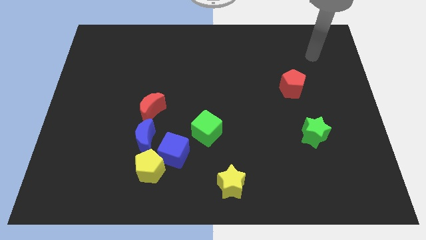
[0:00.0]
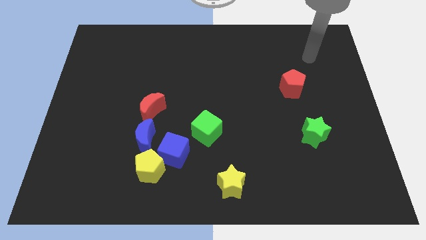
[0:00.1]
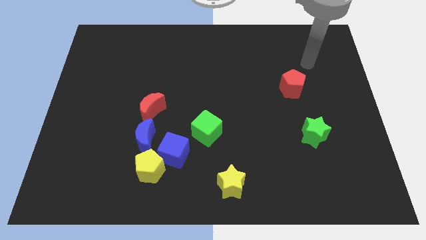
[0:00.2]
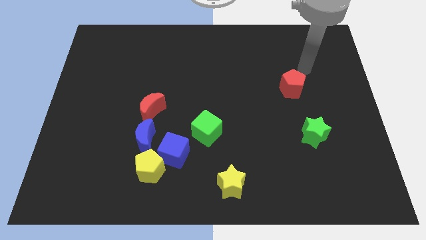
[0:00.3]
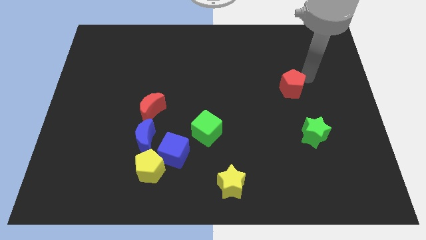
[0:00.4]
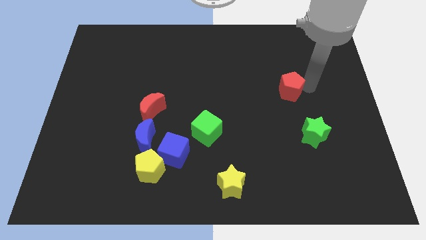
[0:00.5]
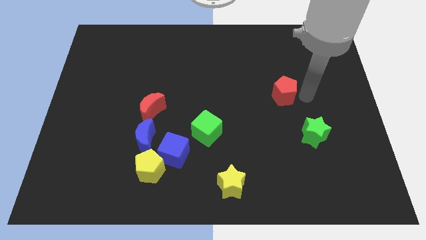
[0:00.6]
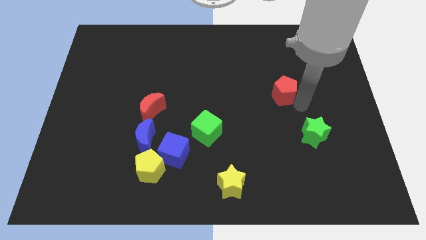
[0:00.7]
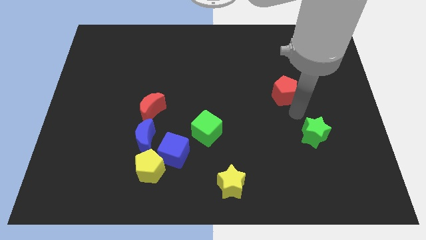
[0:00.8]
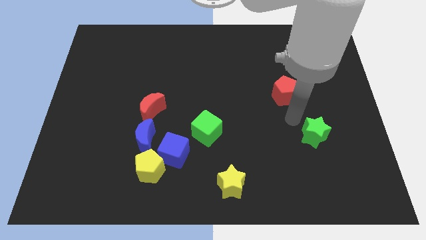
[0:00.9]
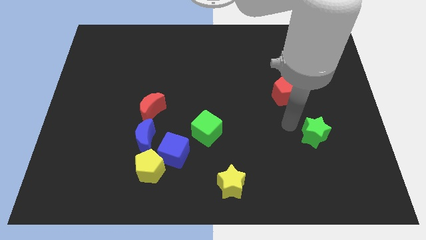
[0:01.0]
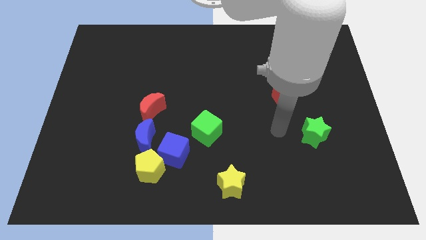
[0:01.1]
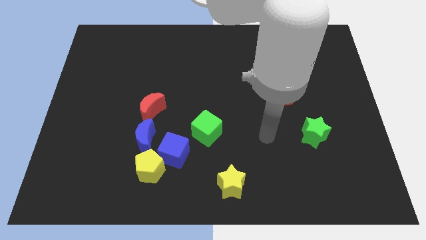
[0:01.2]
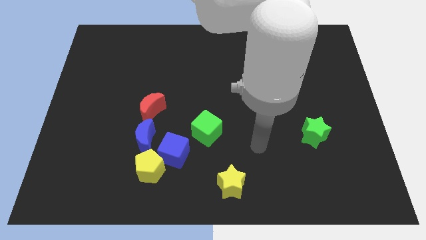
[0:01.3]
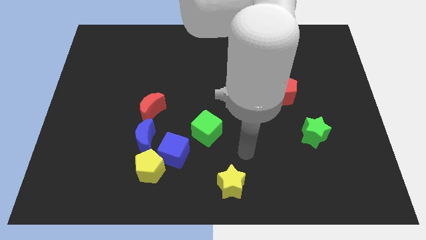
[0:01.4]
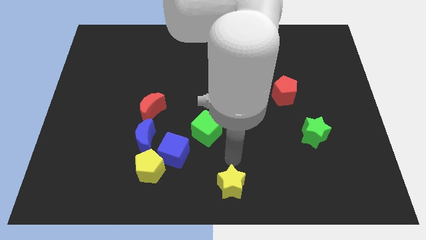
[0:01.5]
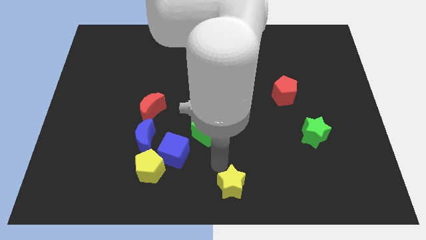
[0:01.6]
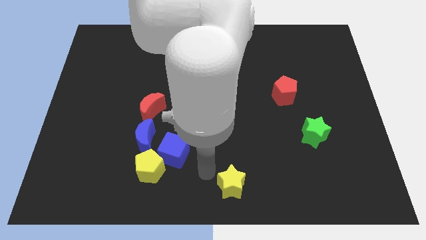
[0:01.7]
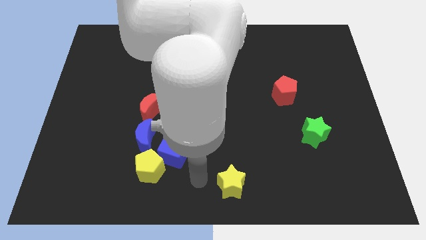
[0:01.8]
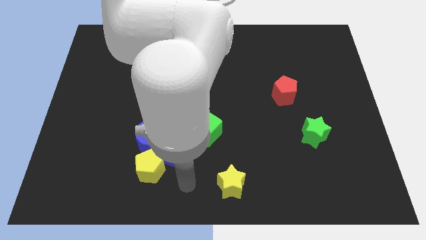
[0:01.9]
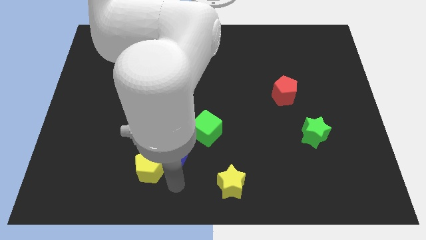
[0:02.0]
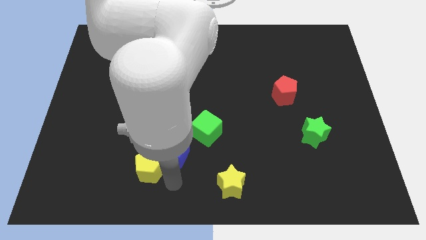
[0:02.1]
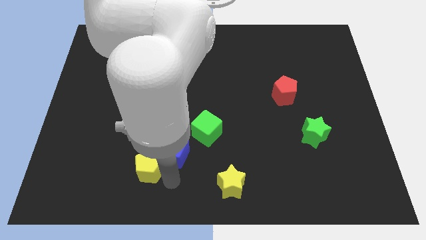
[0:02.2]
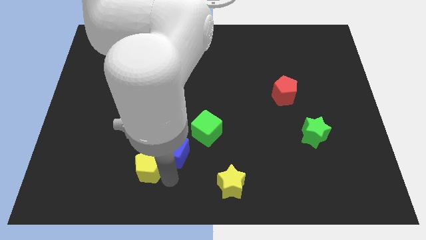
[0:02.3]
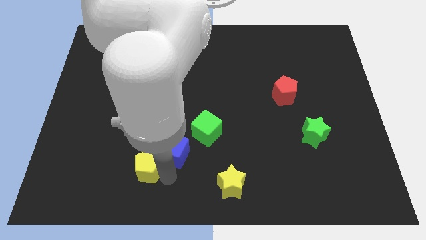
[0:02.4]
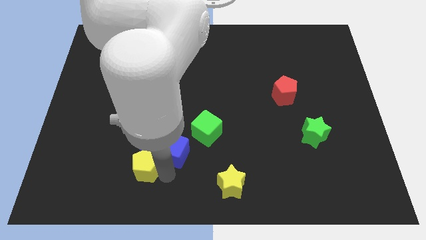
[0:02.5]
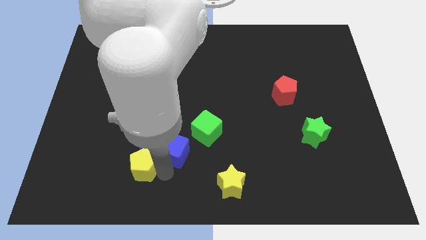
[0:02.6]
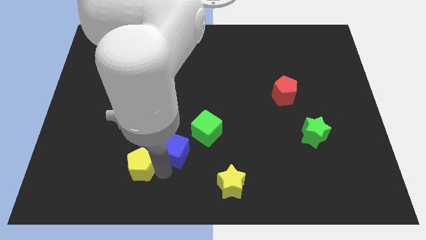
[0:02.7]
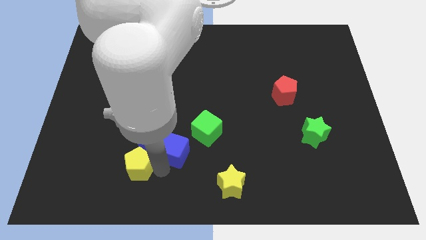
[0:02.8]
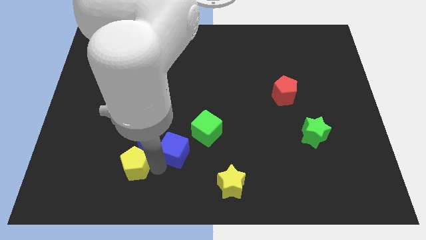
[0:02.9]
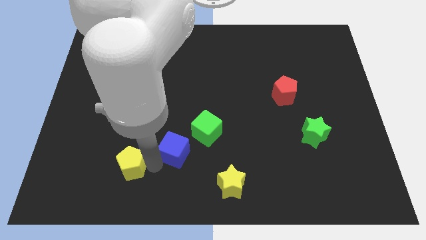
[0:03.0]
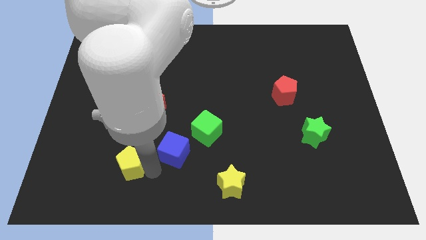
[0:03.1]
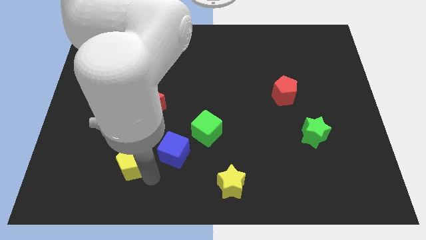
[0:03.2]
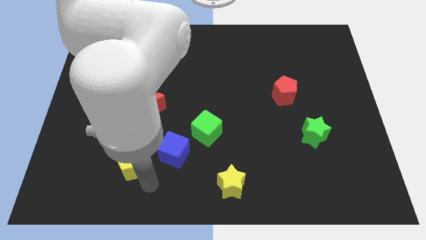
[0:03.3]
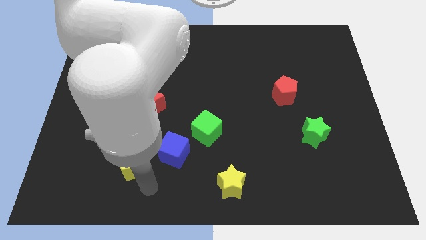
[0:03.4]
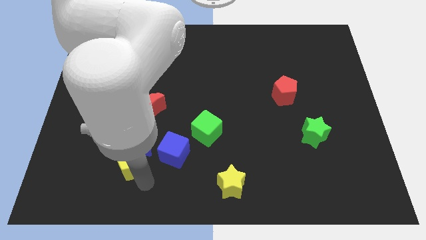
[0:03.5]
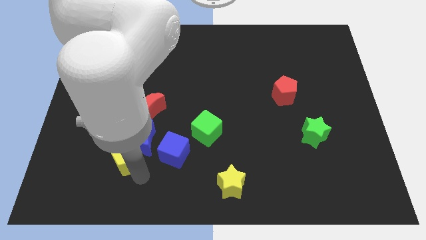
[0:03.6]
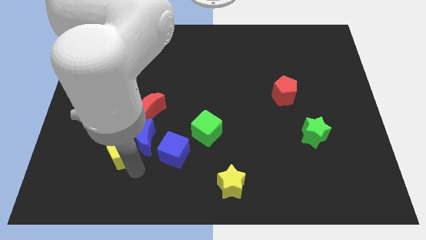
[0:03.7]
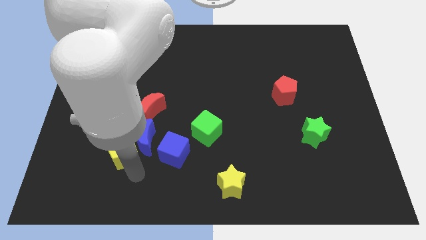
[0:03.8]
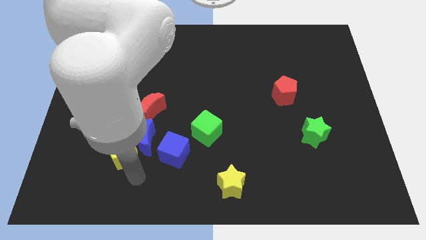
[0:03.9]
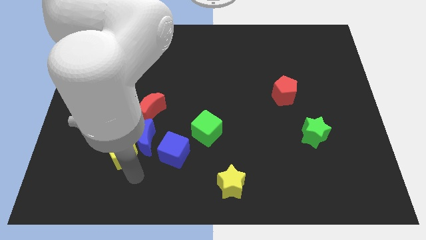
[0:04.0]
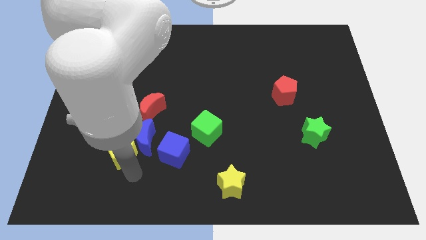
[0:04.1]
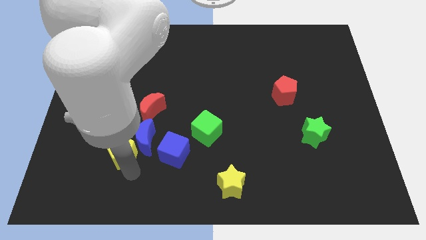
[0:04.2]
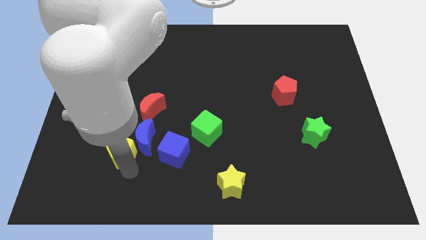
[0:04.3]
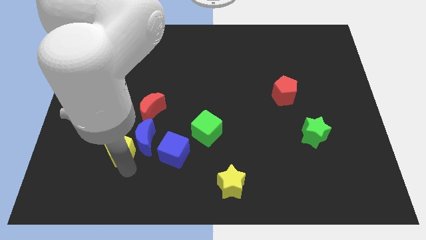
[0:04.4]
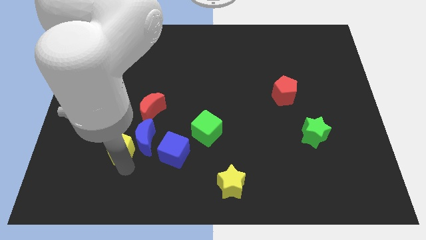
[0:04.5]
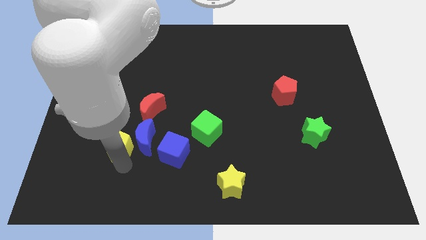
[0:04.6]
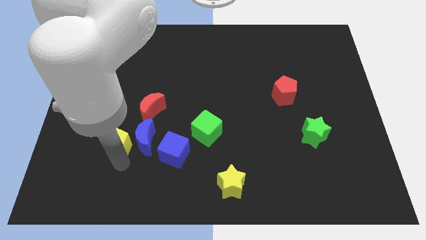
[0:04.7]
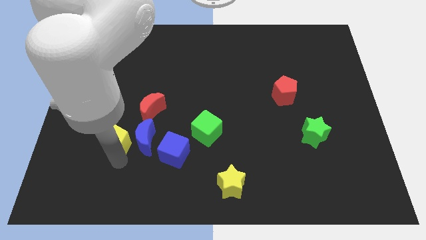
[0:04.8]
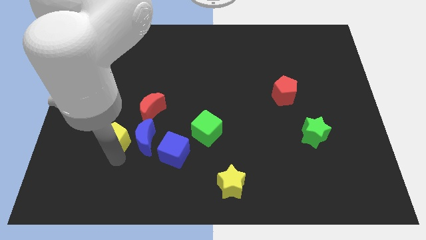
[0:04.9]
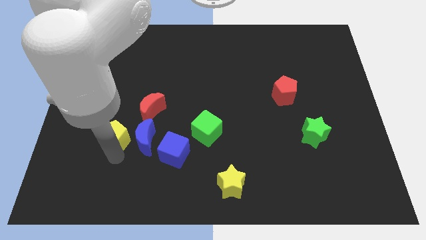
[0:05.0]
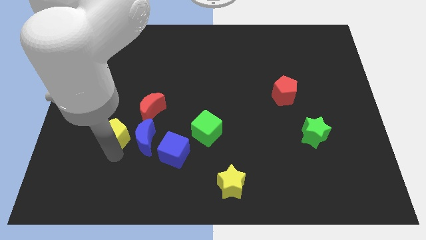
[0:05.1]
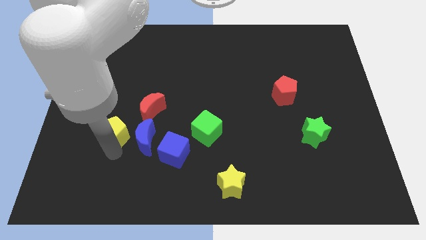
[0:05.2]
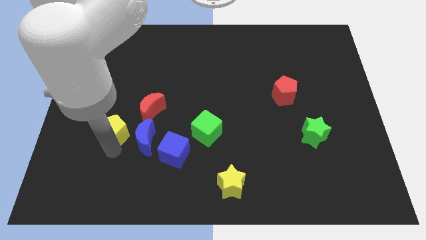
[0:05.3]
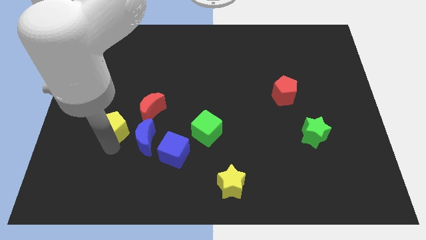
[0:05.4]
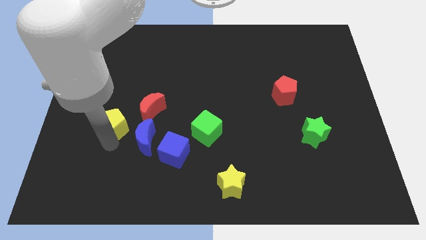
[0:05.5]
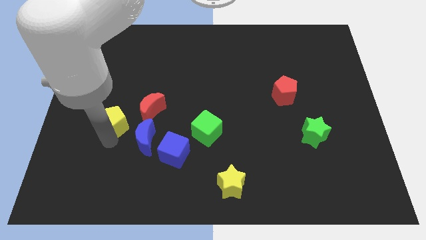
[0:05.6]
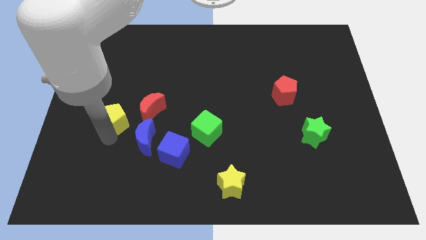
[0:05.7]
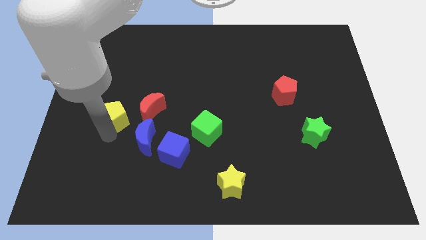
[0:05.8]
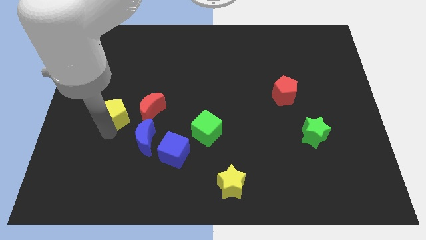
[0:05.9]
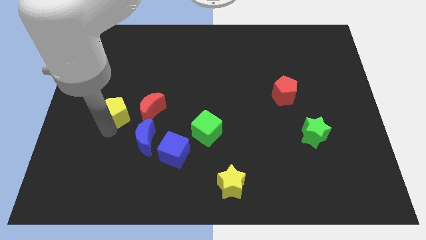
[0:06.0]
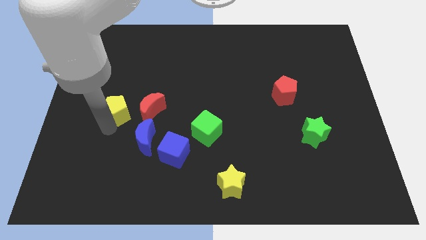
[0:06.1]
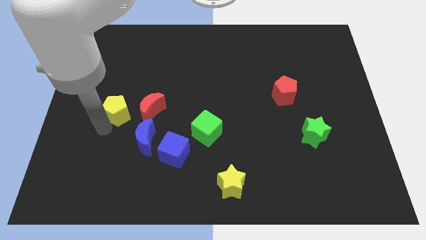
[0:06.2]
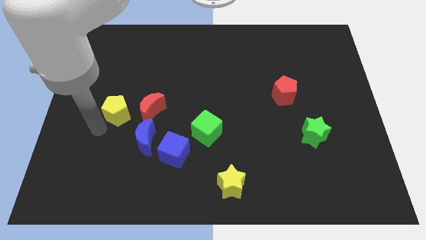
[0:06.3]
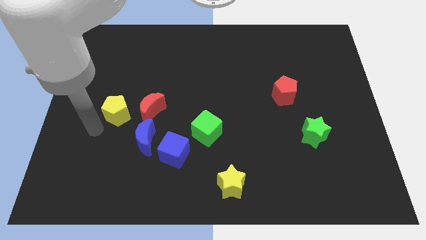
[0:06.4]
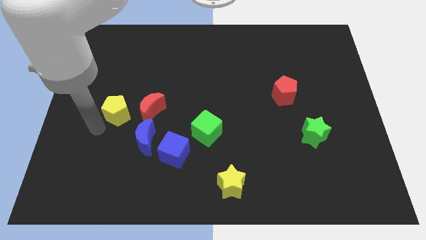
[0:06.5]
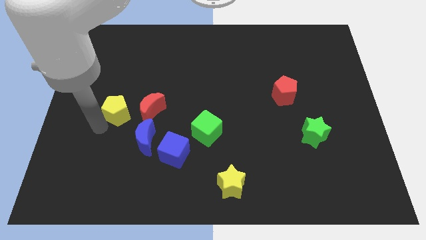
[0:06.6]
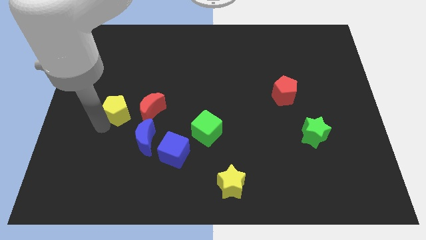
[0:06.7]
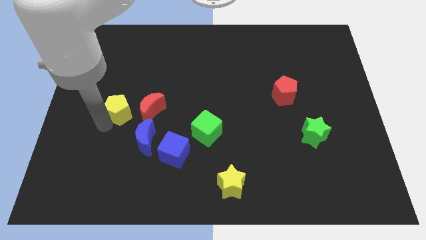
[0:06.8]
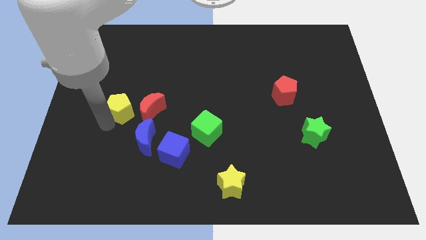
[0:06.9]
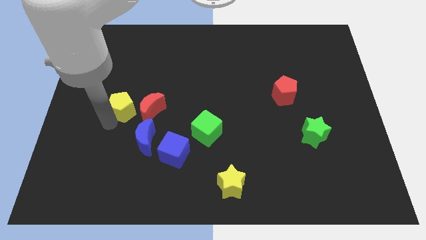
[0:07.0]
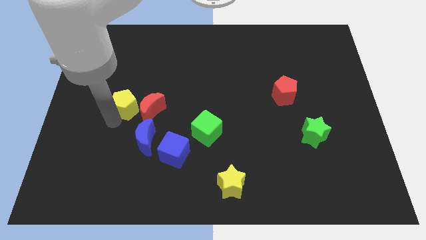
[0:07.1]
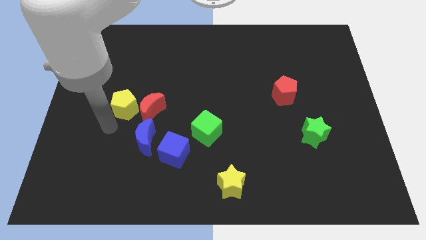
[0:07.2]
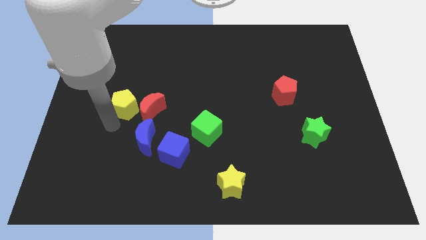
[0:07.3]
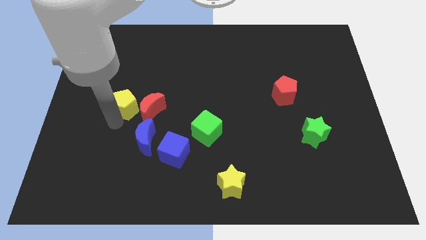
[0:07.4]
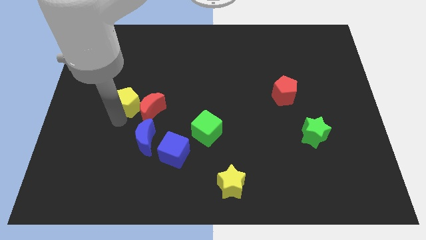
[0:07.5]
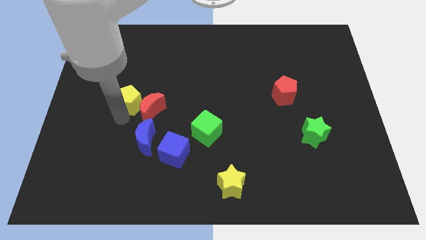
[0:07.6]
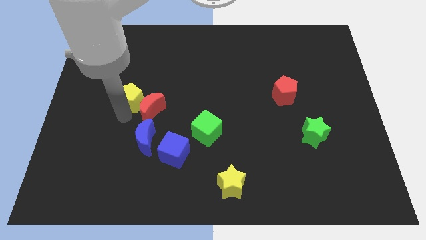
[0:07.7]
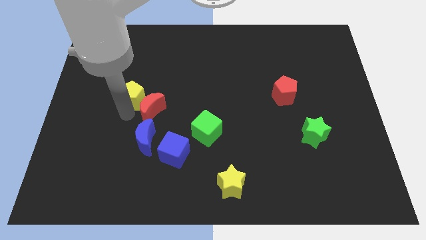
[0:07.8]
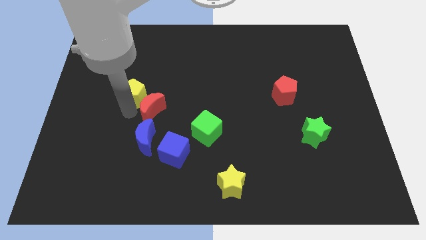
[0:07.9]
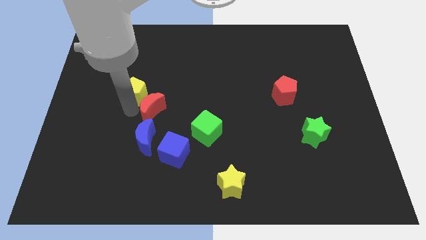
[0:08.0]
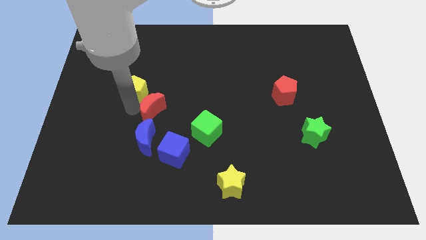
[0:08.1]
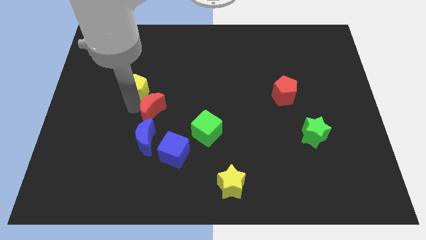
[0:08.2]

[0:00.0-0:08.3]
slide the yellow pentagon up

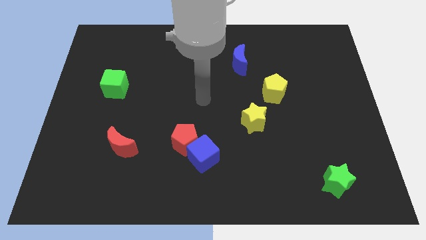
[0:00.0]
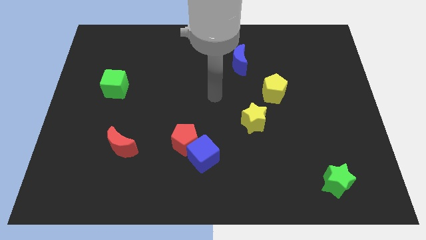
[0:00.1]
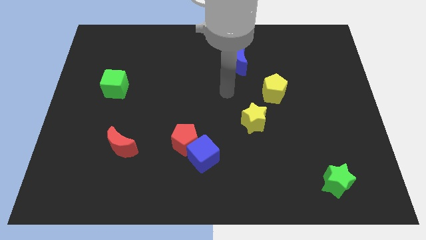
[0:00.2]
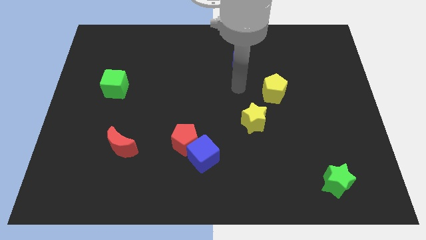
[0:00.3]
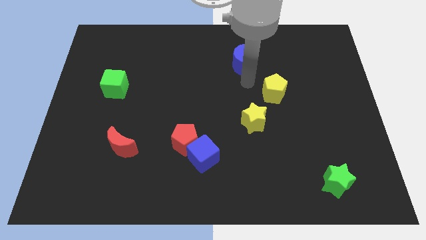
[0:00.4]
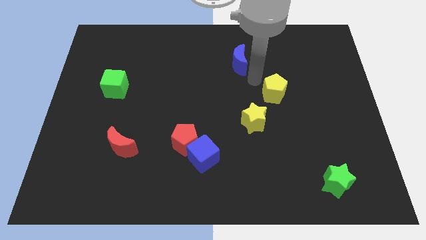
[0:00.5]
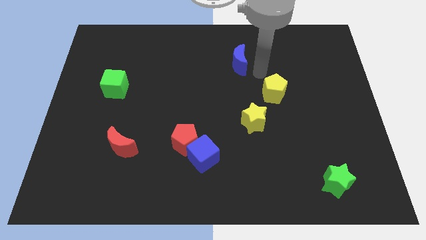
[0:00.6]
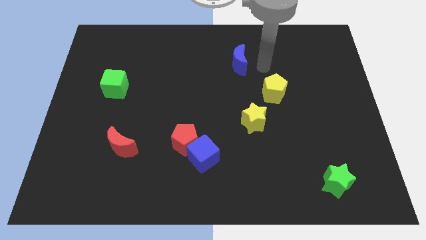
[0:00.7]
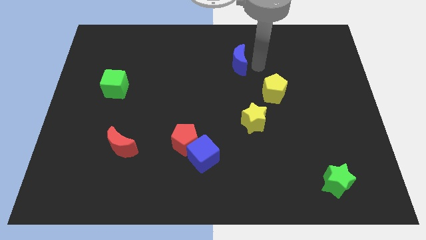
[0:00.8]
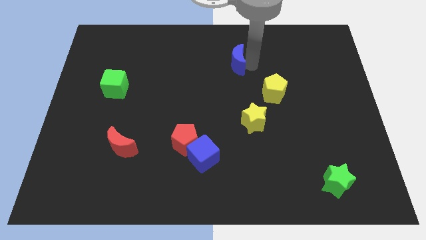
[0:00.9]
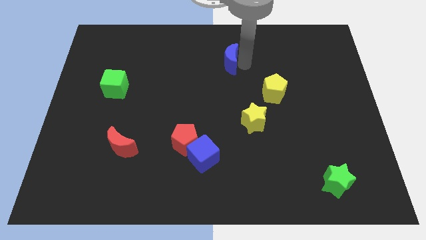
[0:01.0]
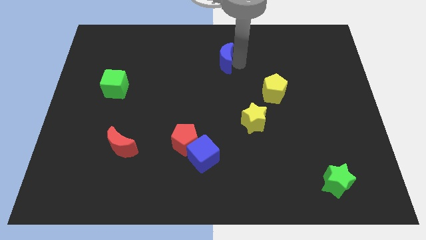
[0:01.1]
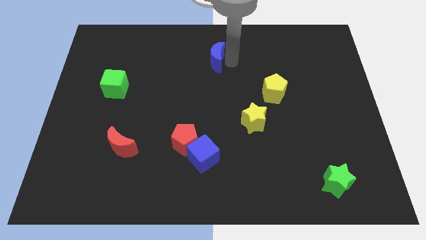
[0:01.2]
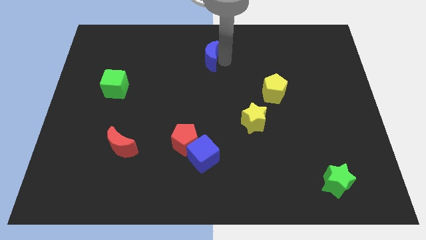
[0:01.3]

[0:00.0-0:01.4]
move the blue moon to the left a bit
